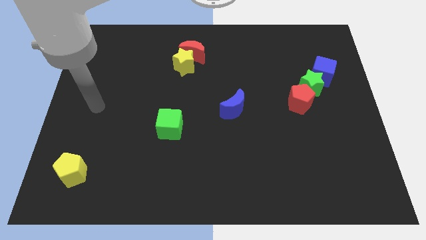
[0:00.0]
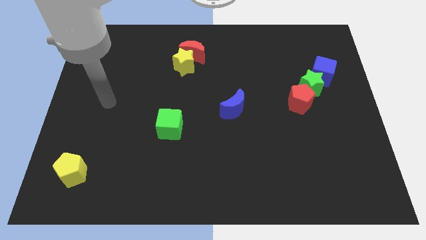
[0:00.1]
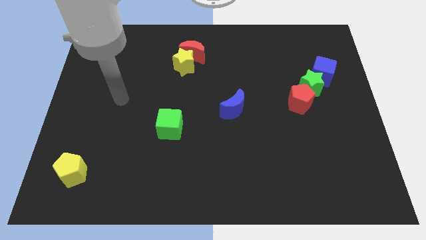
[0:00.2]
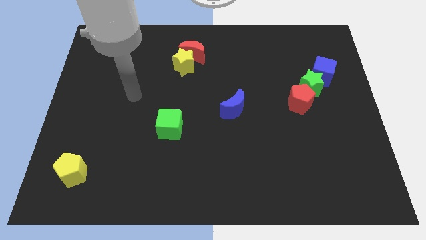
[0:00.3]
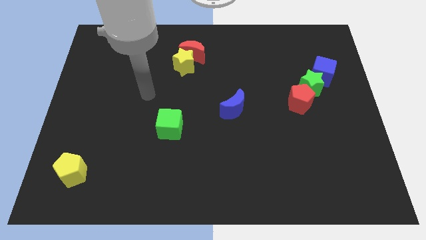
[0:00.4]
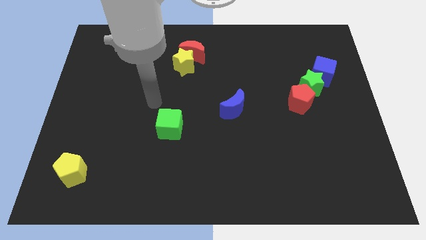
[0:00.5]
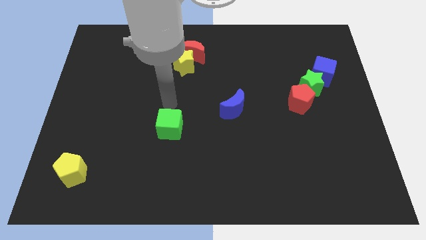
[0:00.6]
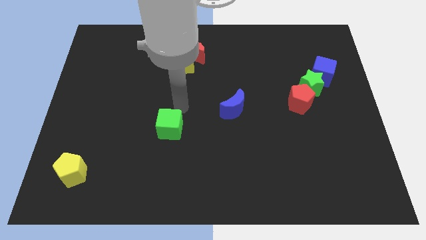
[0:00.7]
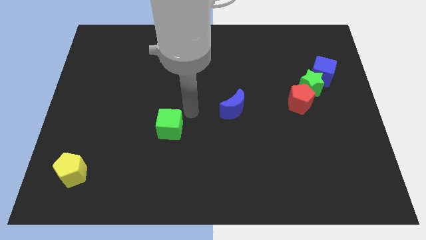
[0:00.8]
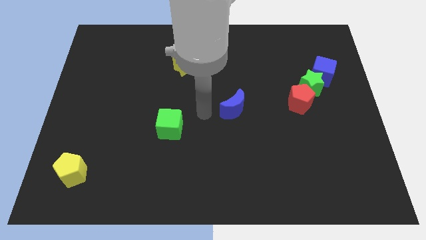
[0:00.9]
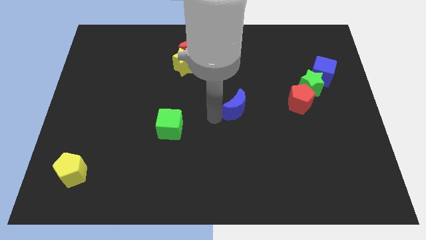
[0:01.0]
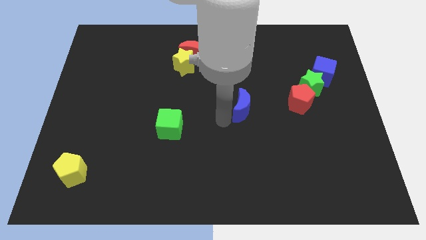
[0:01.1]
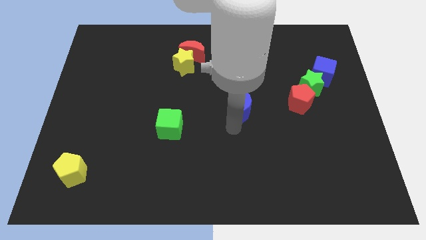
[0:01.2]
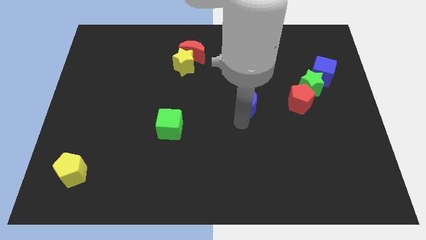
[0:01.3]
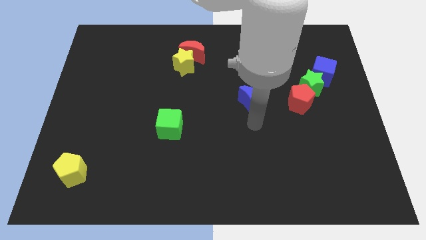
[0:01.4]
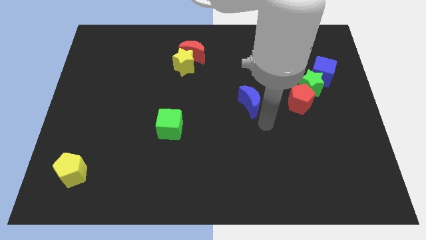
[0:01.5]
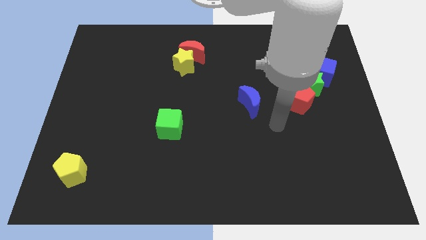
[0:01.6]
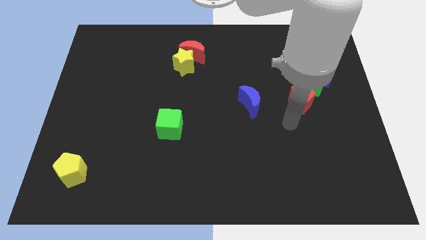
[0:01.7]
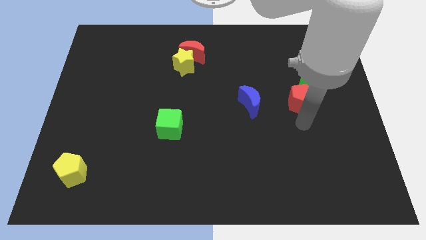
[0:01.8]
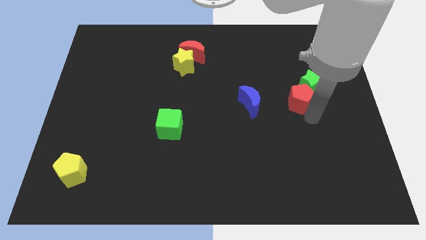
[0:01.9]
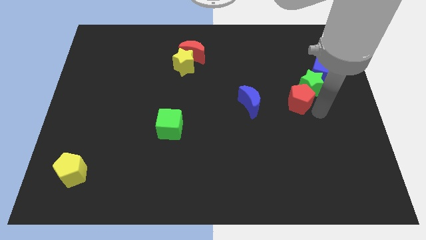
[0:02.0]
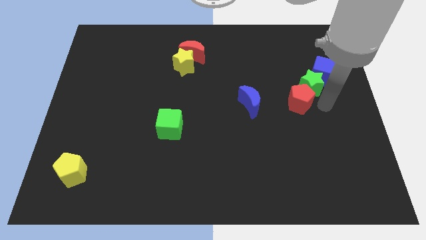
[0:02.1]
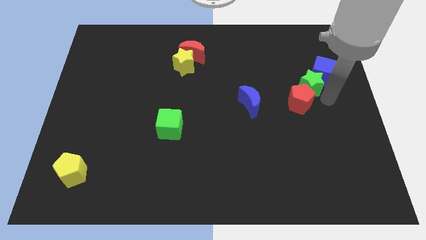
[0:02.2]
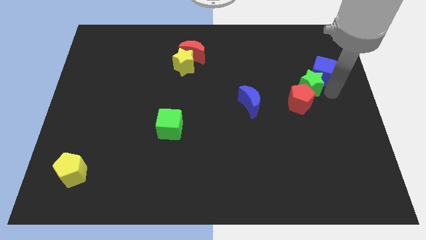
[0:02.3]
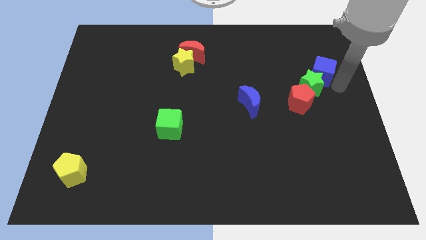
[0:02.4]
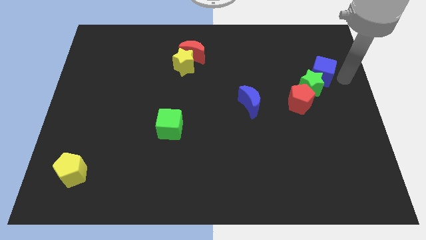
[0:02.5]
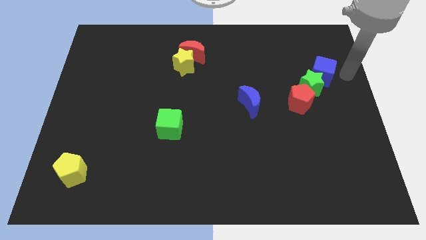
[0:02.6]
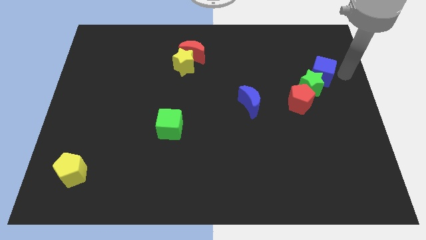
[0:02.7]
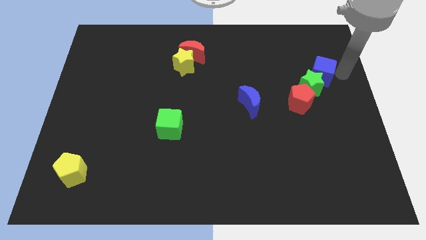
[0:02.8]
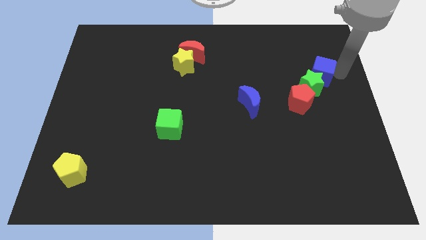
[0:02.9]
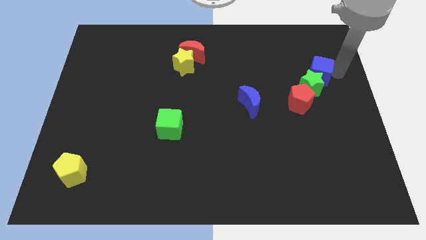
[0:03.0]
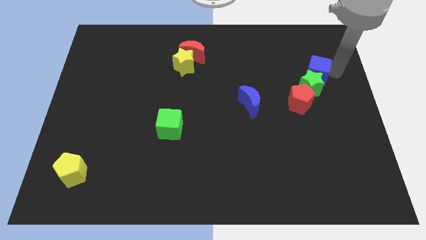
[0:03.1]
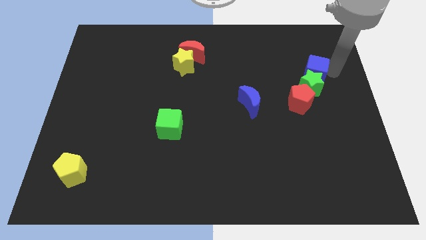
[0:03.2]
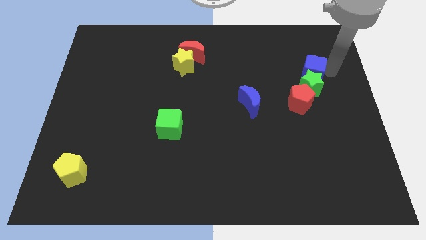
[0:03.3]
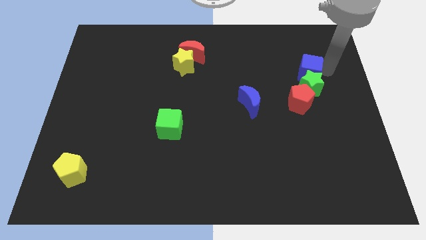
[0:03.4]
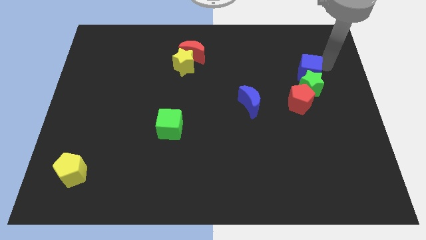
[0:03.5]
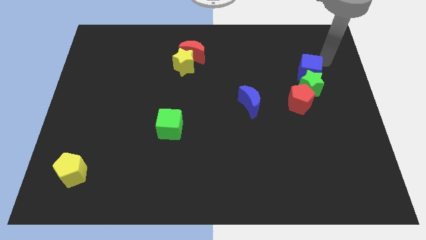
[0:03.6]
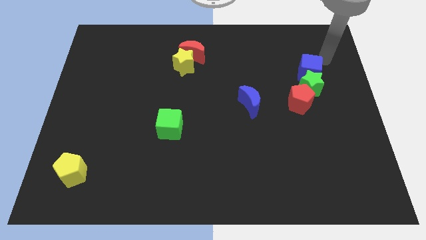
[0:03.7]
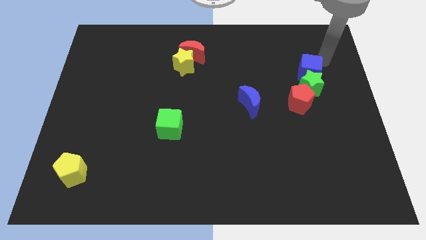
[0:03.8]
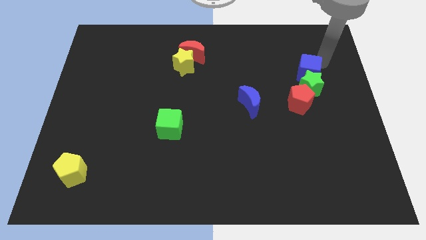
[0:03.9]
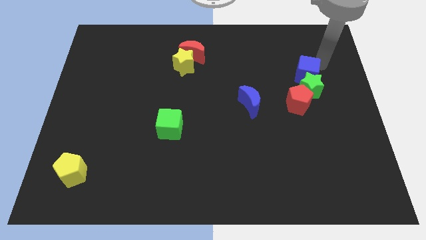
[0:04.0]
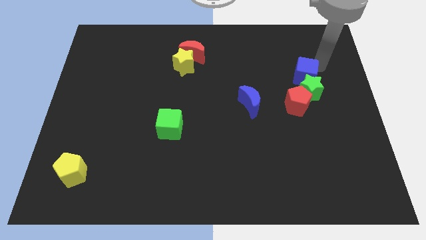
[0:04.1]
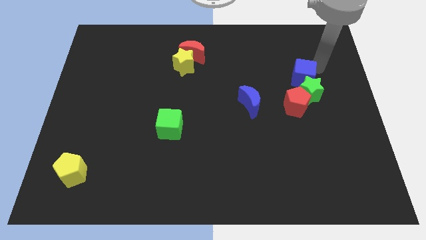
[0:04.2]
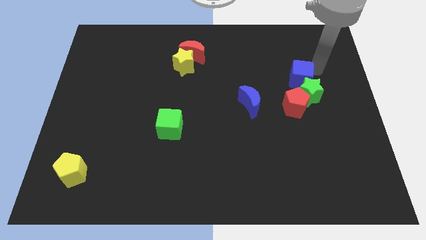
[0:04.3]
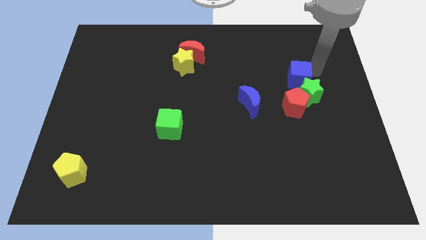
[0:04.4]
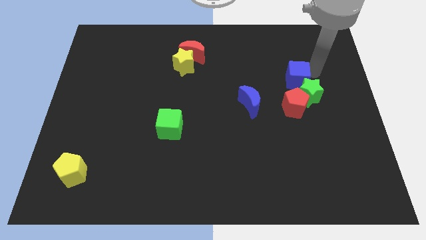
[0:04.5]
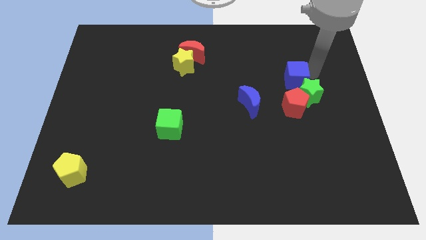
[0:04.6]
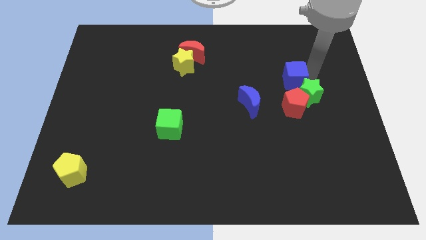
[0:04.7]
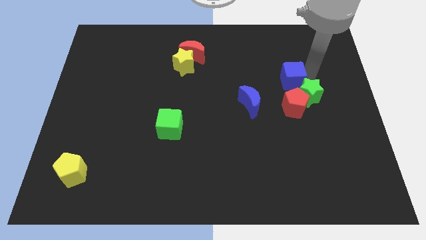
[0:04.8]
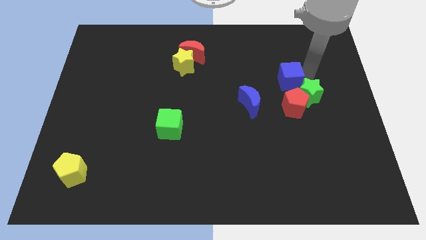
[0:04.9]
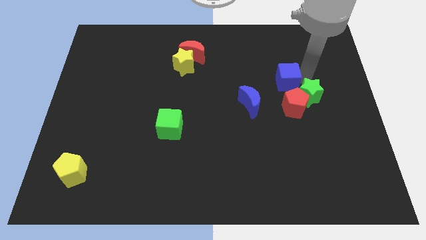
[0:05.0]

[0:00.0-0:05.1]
move the blue cube a little bit diagonally down and to the left

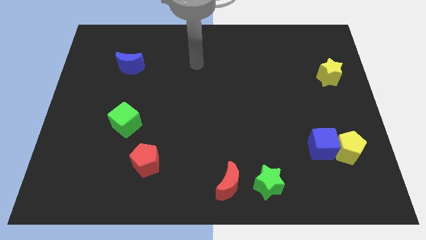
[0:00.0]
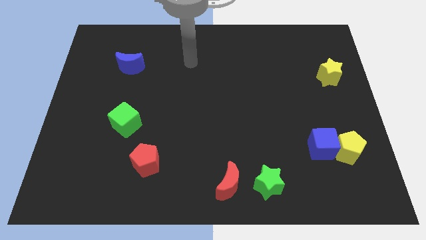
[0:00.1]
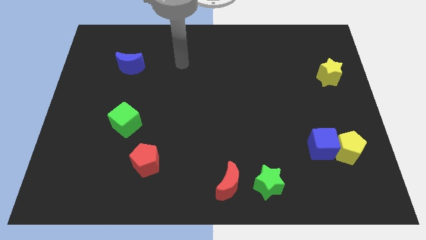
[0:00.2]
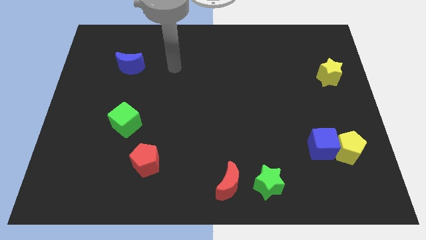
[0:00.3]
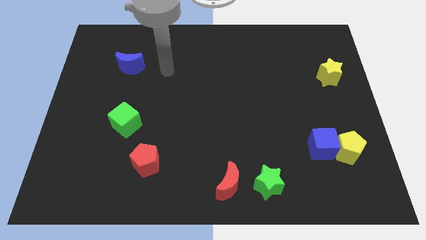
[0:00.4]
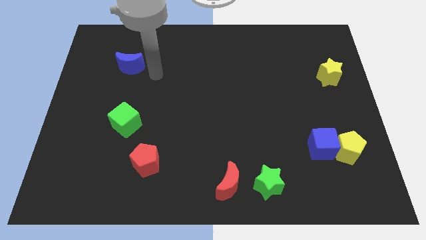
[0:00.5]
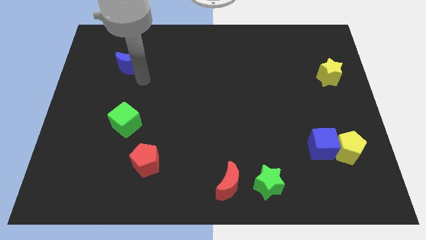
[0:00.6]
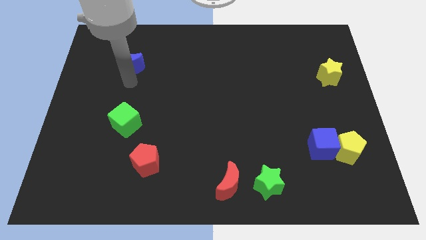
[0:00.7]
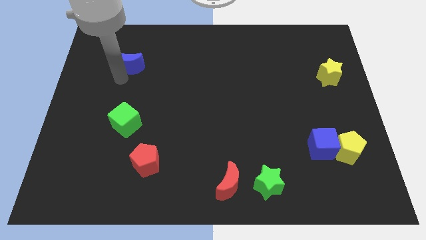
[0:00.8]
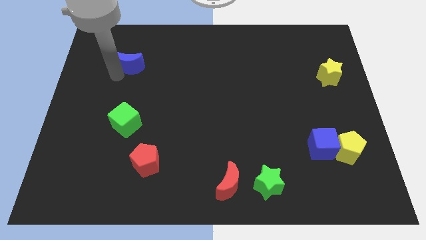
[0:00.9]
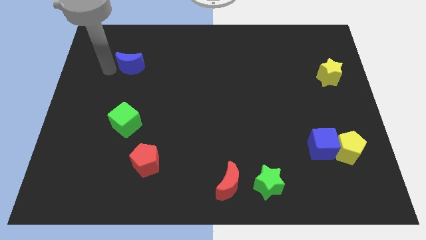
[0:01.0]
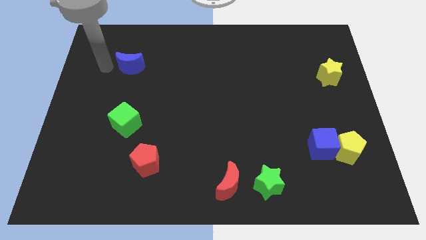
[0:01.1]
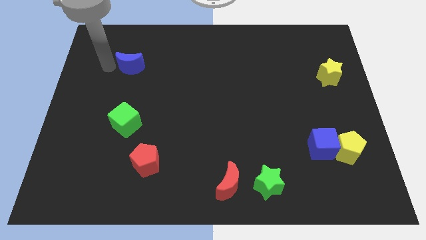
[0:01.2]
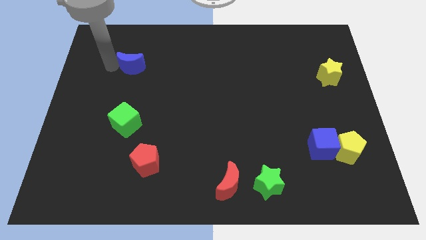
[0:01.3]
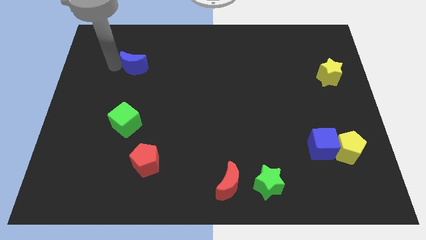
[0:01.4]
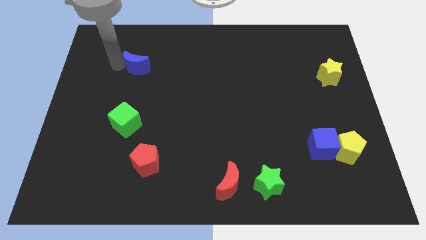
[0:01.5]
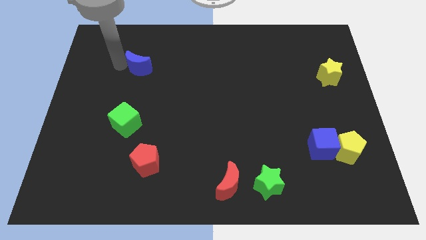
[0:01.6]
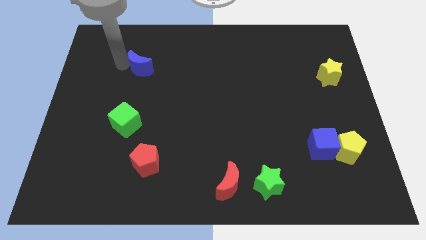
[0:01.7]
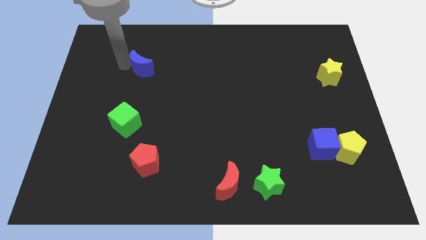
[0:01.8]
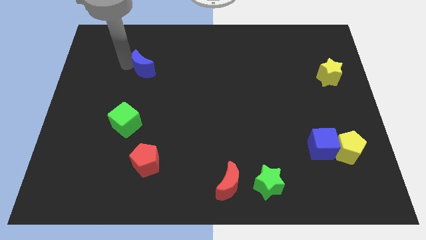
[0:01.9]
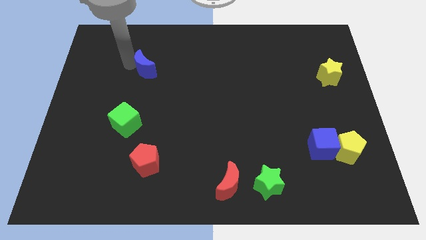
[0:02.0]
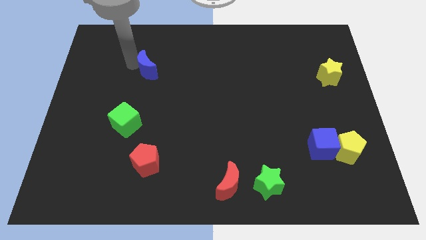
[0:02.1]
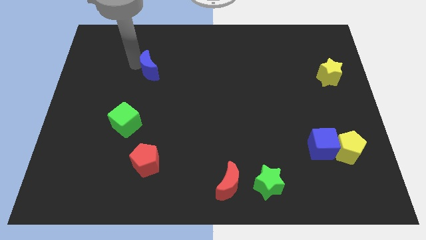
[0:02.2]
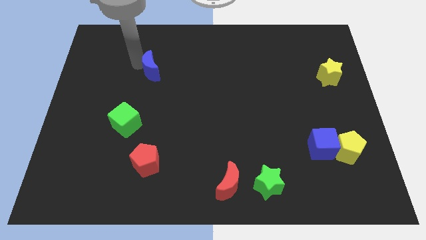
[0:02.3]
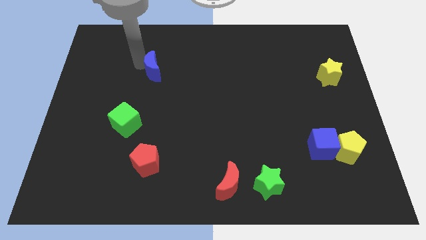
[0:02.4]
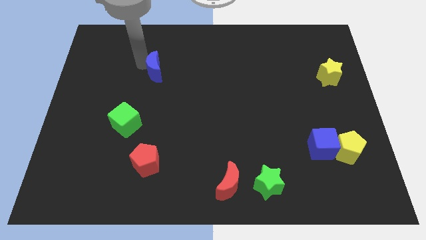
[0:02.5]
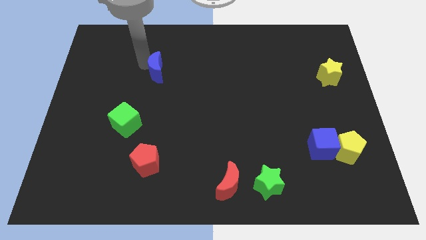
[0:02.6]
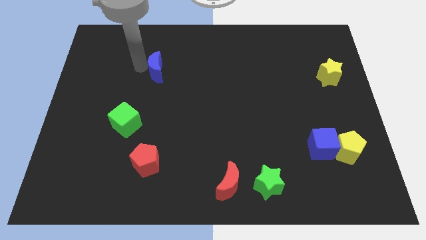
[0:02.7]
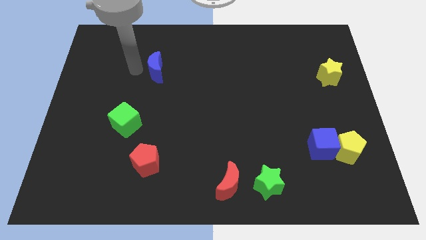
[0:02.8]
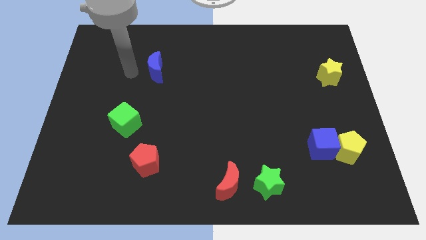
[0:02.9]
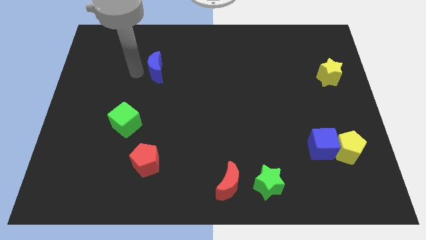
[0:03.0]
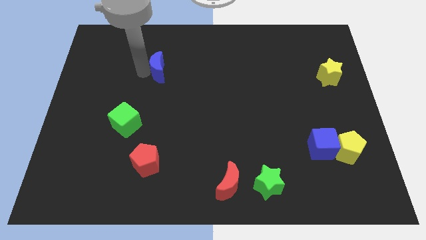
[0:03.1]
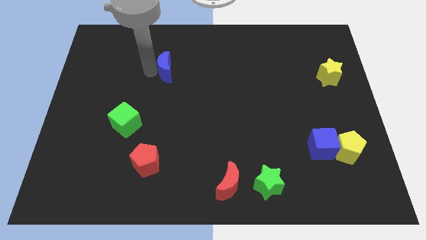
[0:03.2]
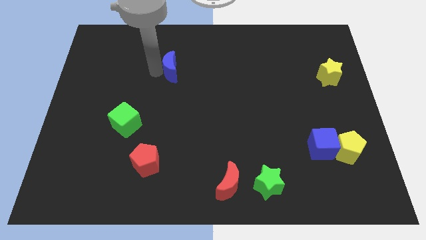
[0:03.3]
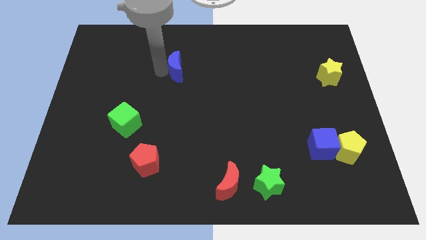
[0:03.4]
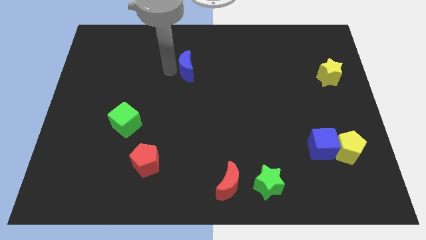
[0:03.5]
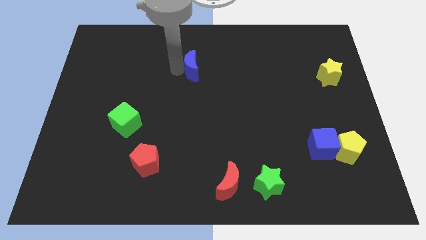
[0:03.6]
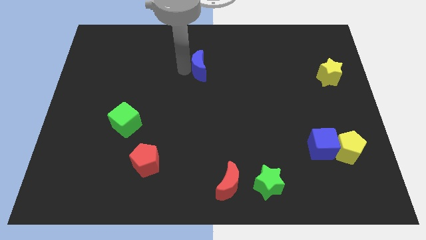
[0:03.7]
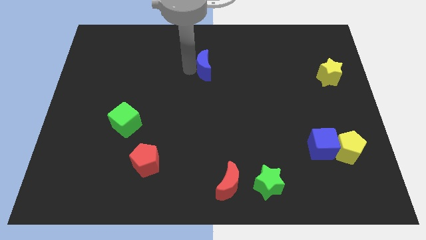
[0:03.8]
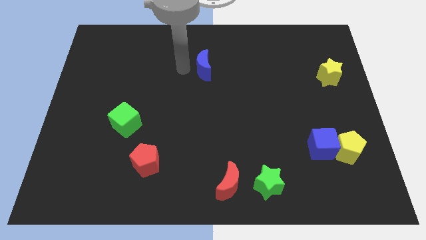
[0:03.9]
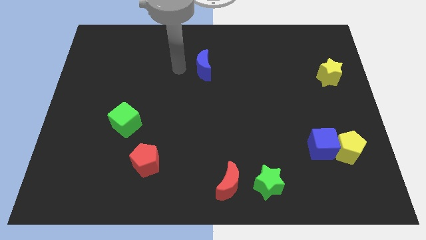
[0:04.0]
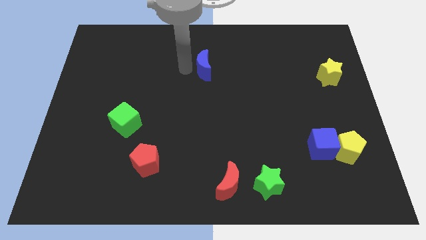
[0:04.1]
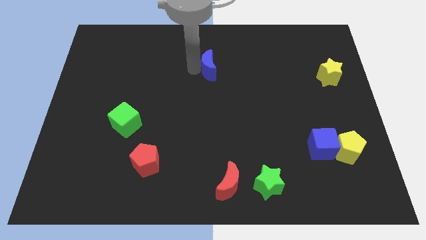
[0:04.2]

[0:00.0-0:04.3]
slide the blue moon right
